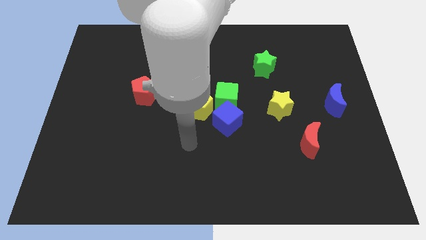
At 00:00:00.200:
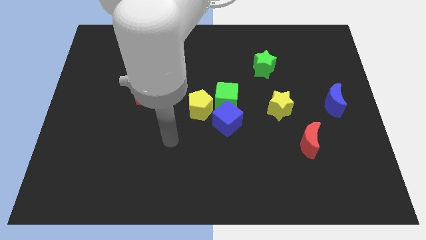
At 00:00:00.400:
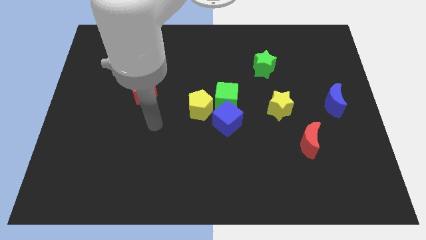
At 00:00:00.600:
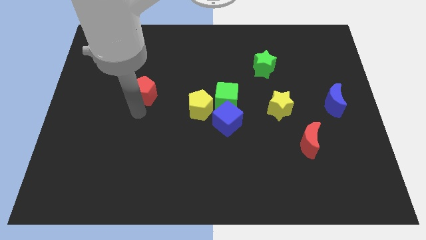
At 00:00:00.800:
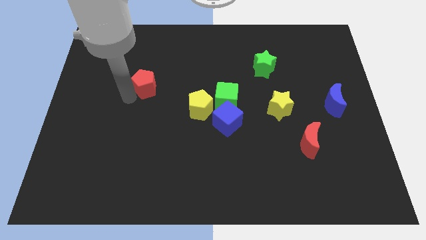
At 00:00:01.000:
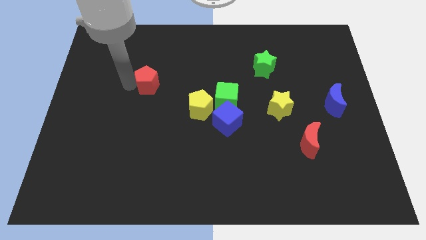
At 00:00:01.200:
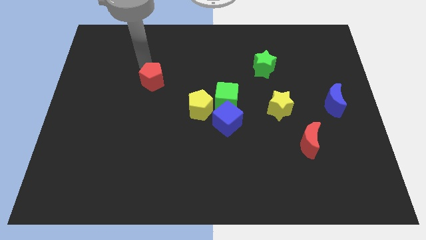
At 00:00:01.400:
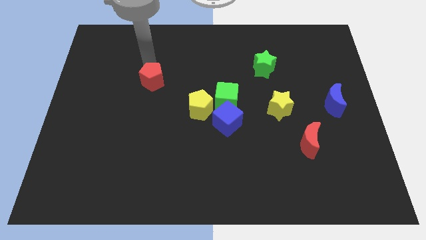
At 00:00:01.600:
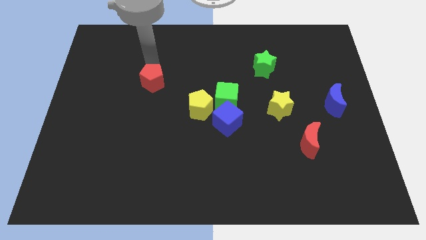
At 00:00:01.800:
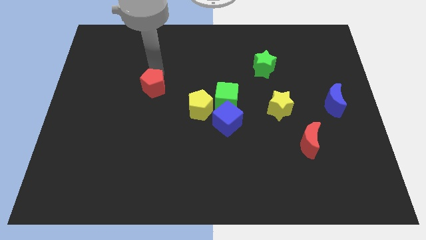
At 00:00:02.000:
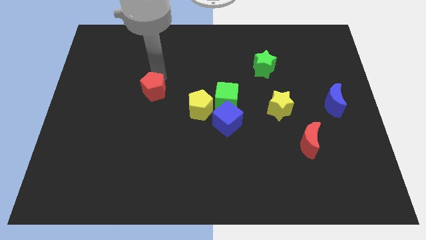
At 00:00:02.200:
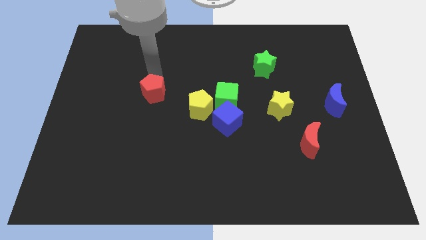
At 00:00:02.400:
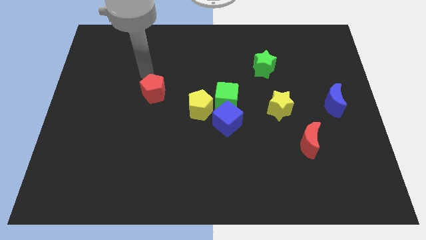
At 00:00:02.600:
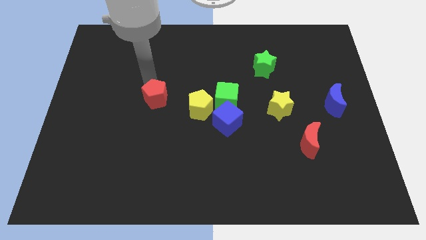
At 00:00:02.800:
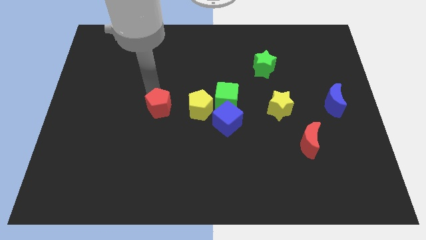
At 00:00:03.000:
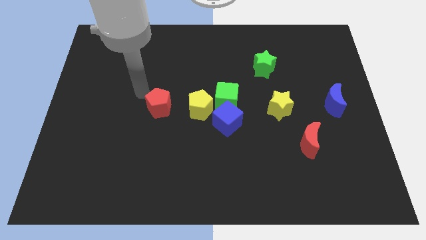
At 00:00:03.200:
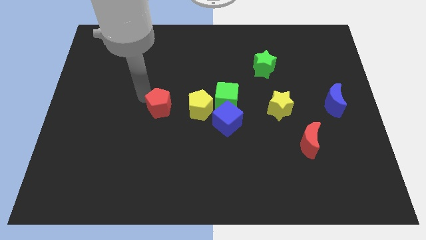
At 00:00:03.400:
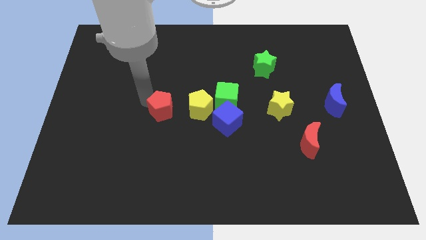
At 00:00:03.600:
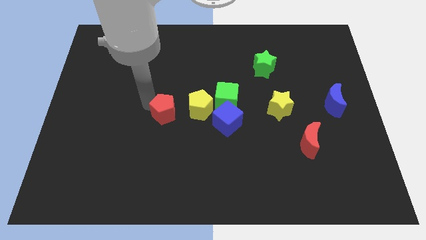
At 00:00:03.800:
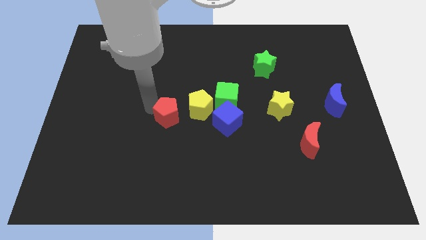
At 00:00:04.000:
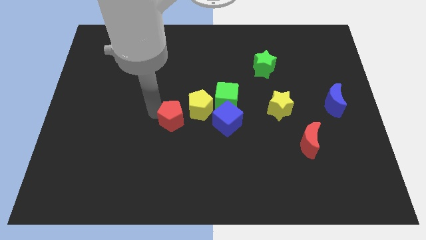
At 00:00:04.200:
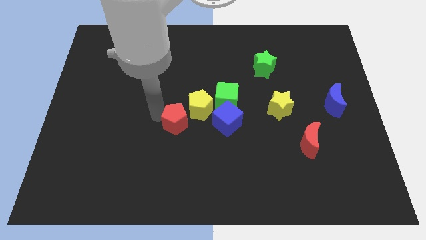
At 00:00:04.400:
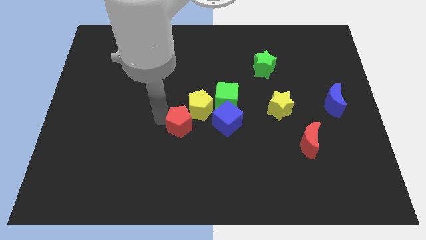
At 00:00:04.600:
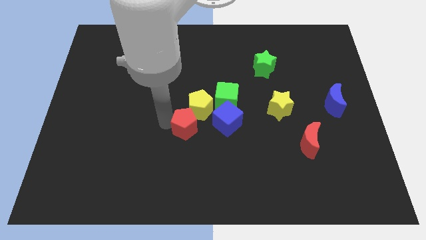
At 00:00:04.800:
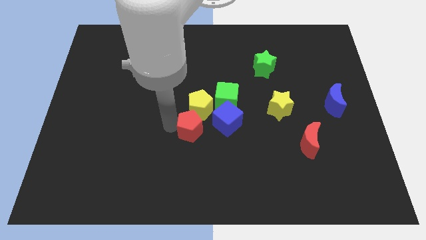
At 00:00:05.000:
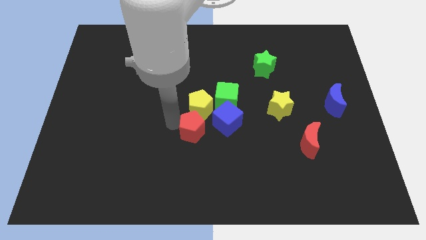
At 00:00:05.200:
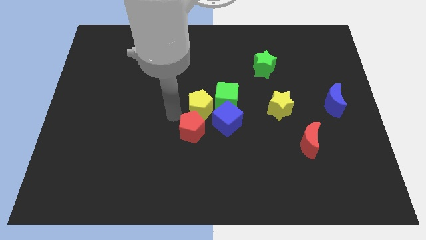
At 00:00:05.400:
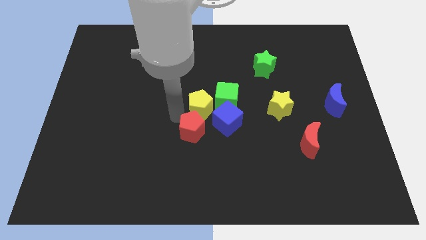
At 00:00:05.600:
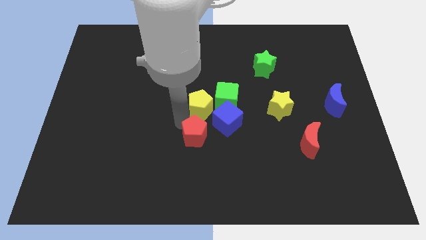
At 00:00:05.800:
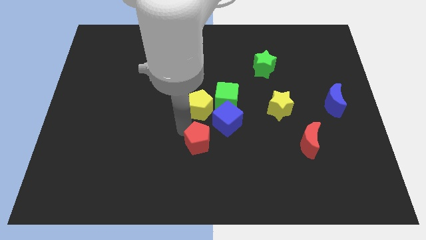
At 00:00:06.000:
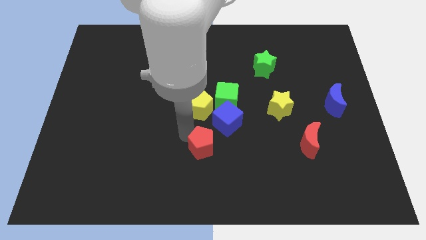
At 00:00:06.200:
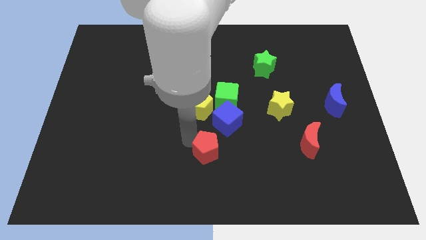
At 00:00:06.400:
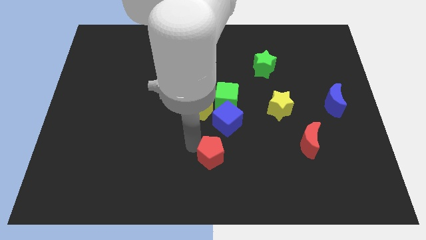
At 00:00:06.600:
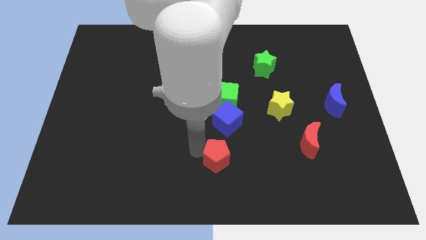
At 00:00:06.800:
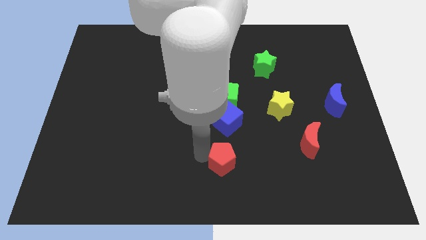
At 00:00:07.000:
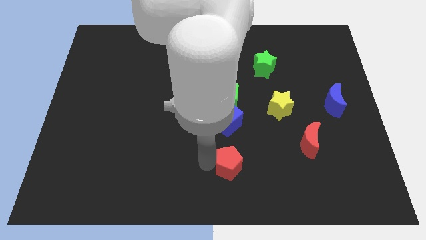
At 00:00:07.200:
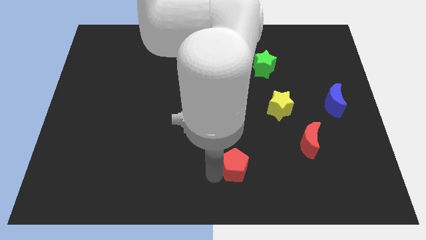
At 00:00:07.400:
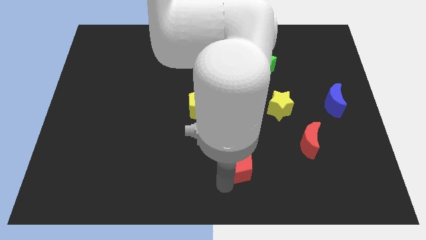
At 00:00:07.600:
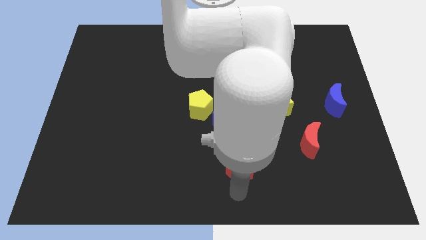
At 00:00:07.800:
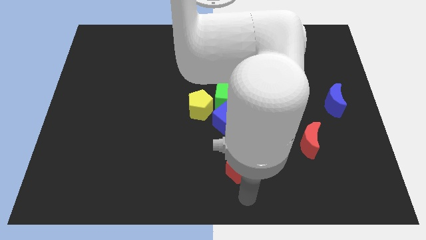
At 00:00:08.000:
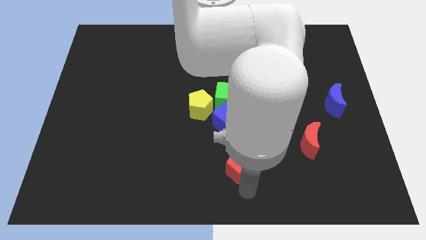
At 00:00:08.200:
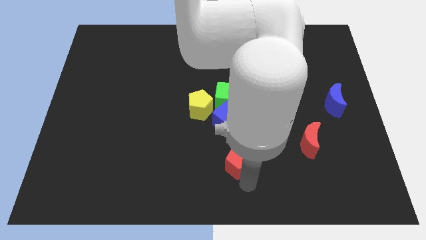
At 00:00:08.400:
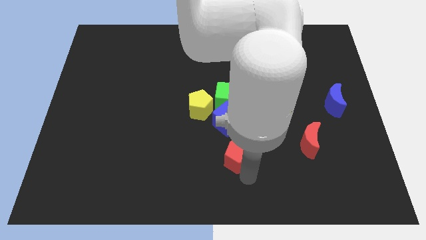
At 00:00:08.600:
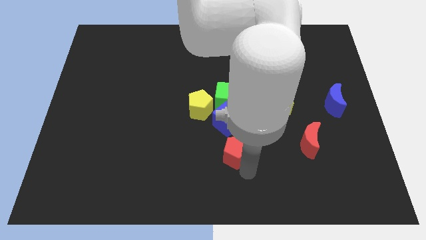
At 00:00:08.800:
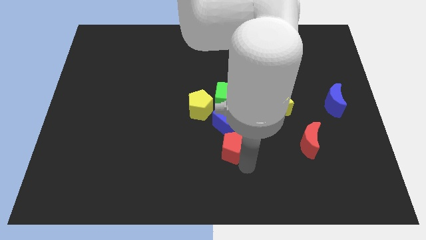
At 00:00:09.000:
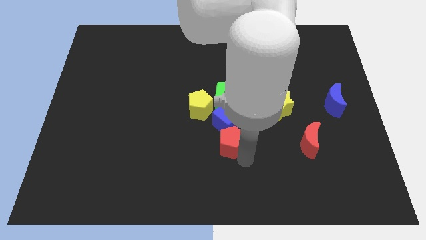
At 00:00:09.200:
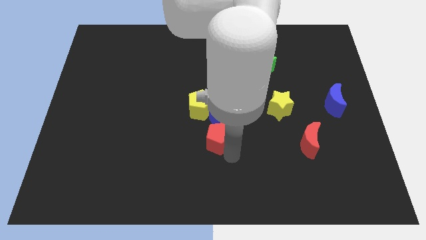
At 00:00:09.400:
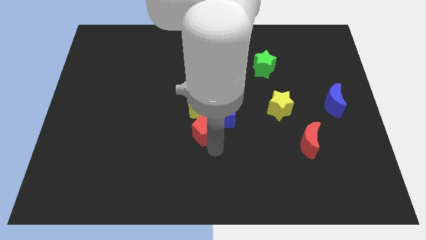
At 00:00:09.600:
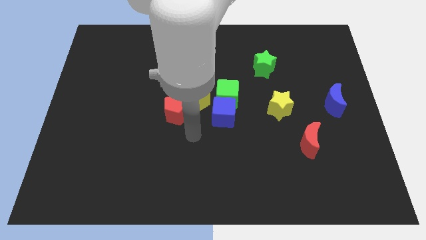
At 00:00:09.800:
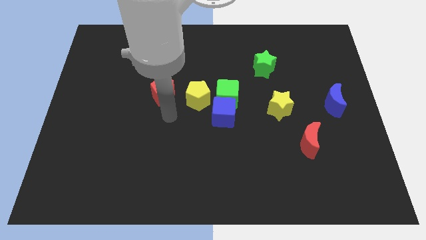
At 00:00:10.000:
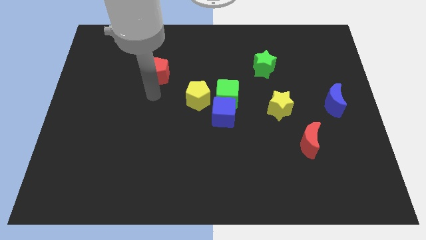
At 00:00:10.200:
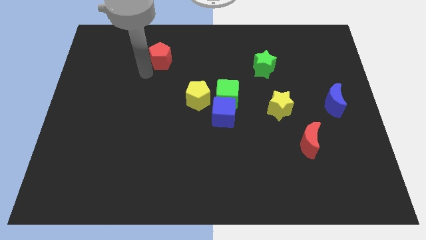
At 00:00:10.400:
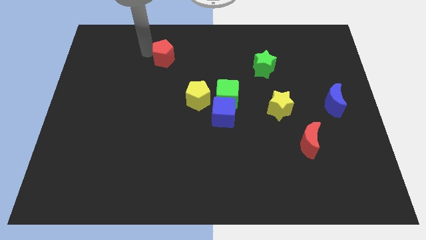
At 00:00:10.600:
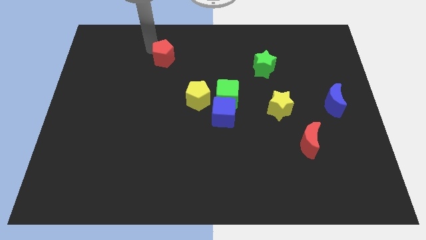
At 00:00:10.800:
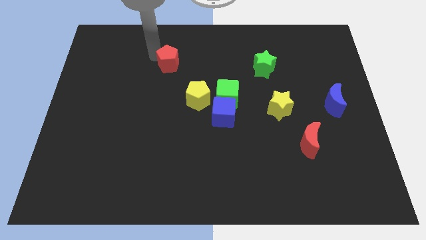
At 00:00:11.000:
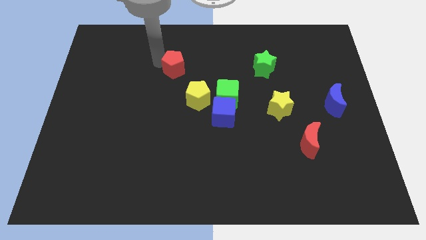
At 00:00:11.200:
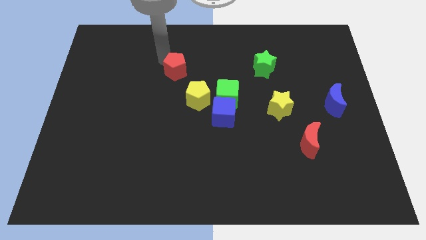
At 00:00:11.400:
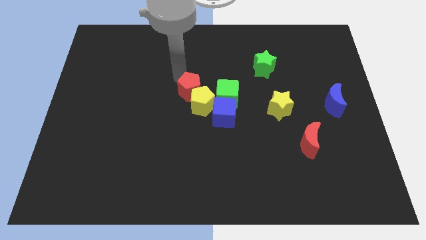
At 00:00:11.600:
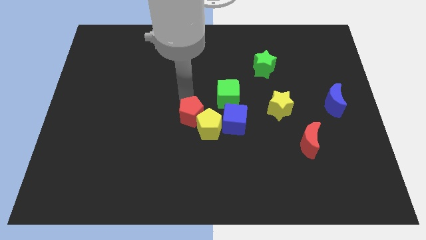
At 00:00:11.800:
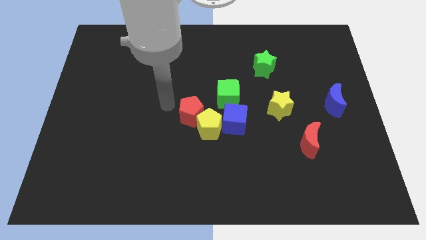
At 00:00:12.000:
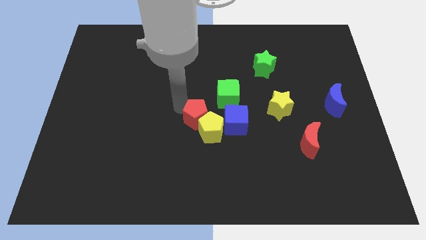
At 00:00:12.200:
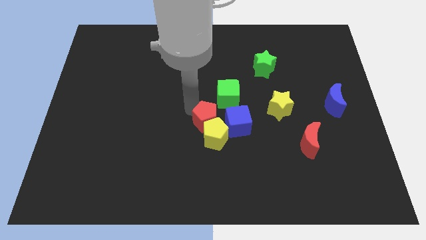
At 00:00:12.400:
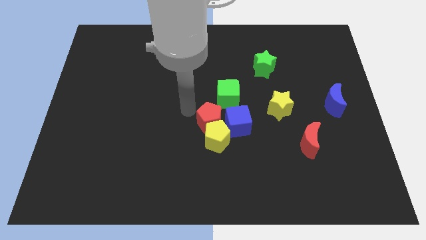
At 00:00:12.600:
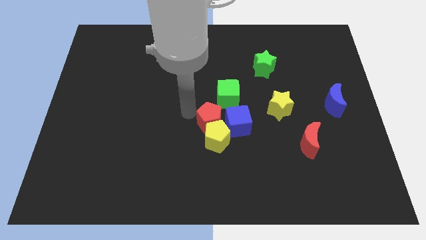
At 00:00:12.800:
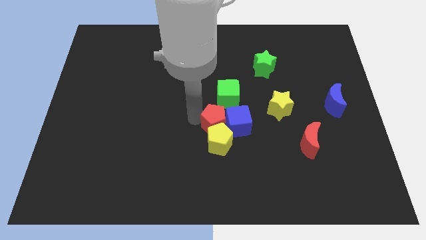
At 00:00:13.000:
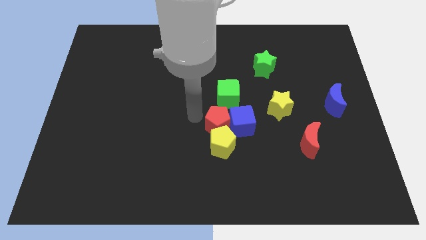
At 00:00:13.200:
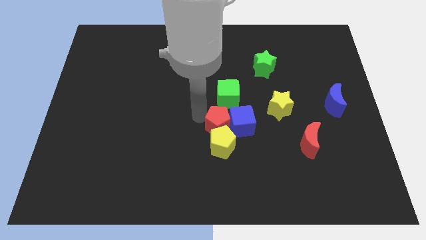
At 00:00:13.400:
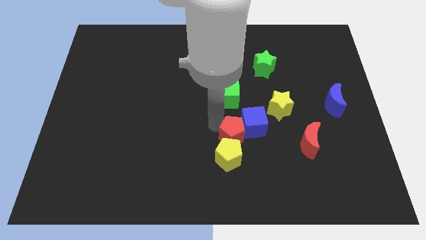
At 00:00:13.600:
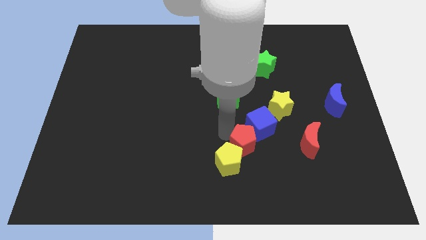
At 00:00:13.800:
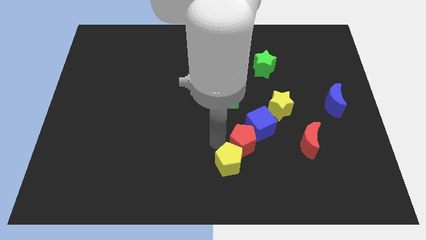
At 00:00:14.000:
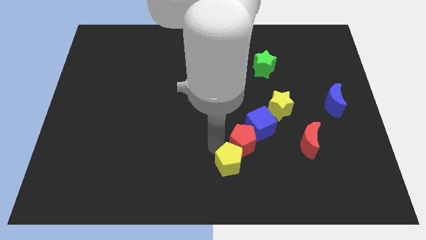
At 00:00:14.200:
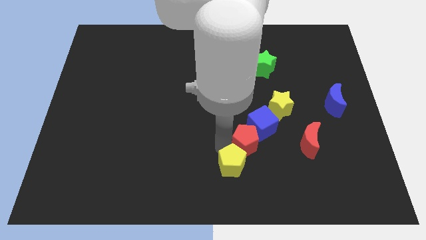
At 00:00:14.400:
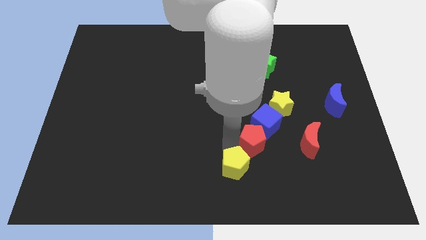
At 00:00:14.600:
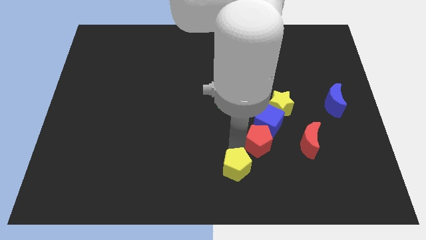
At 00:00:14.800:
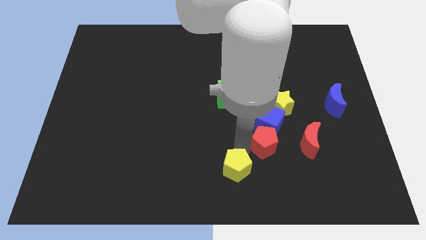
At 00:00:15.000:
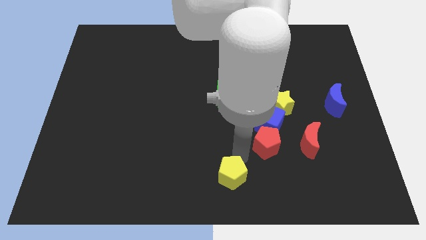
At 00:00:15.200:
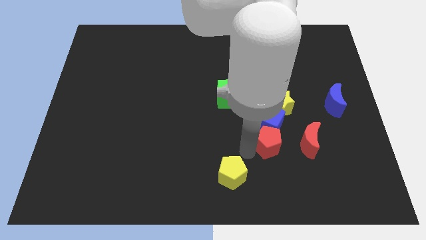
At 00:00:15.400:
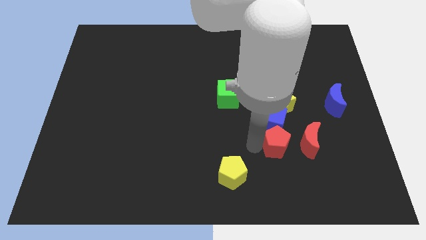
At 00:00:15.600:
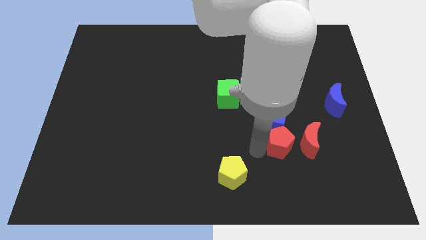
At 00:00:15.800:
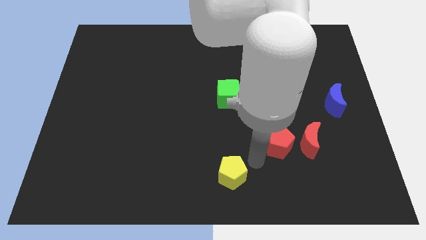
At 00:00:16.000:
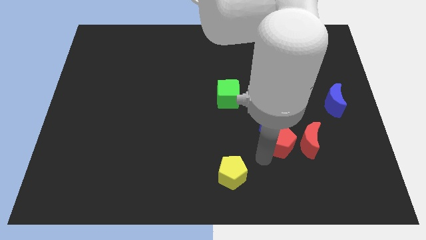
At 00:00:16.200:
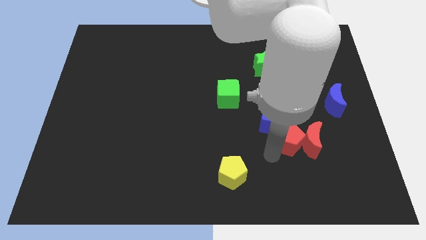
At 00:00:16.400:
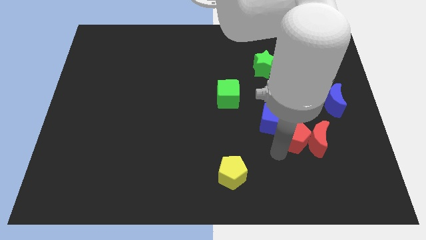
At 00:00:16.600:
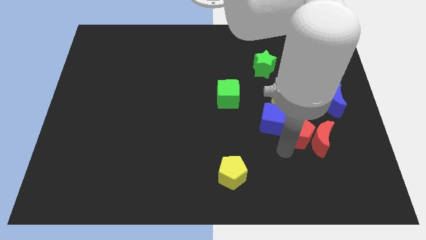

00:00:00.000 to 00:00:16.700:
push the red pentagon to the bottom right side of the yellow star
